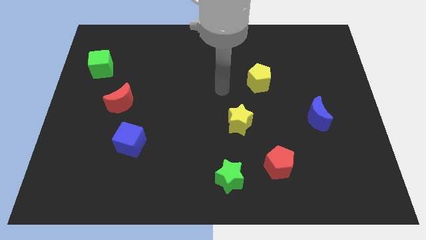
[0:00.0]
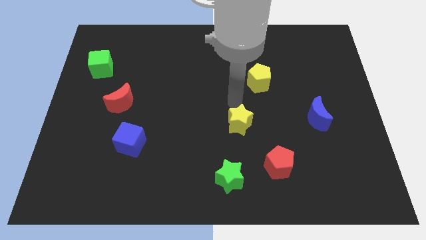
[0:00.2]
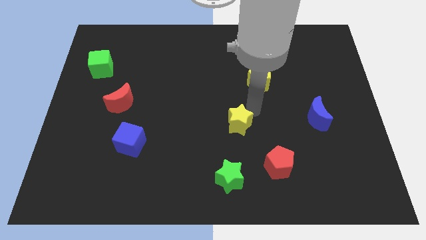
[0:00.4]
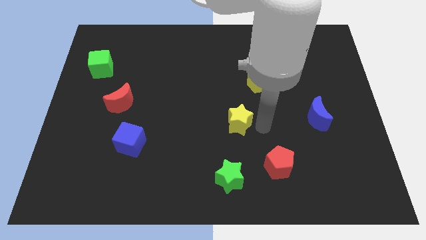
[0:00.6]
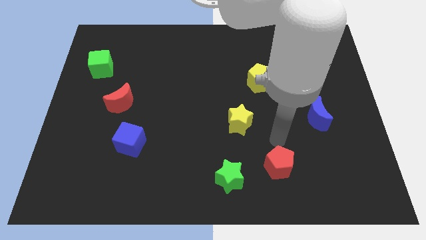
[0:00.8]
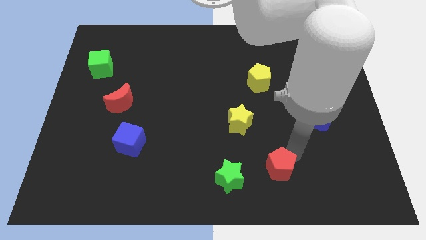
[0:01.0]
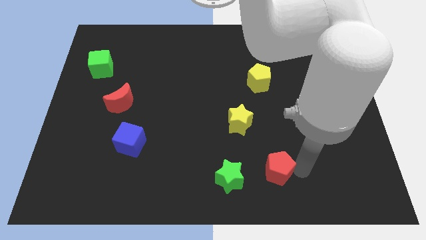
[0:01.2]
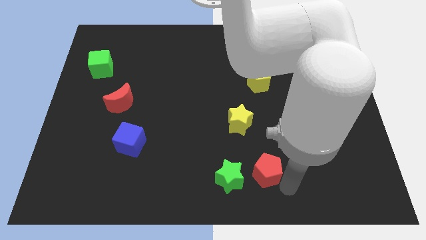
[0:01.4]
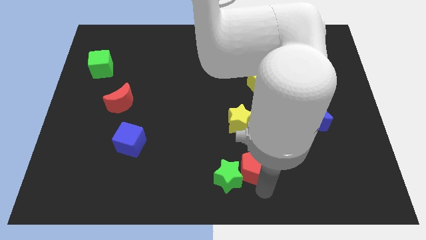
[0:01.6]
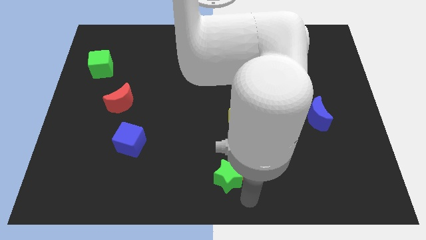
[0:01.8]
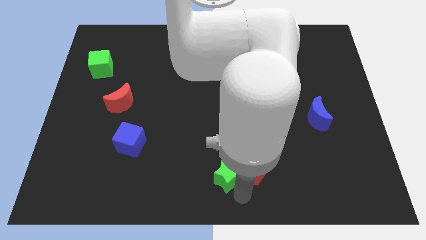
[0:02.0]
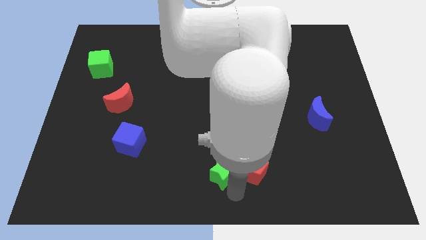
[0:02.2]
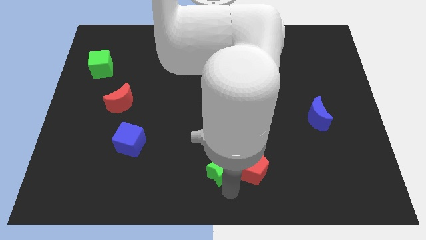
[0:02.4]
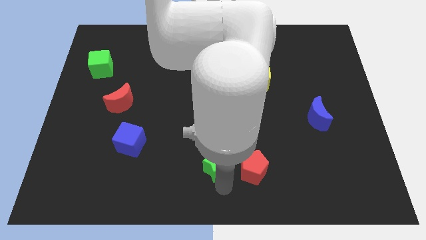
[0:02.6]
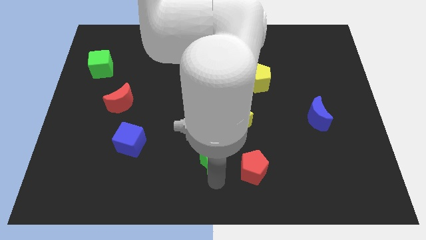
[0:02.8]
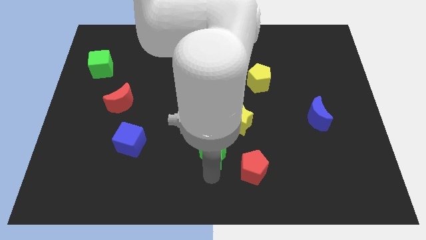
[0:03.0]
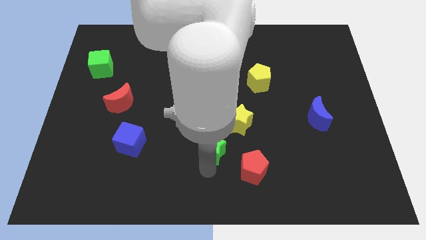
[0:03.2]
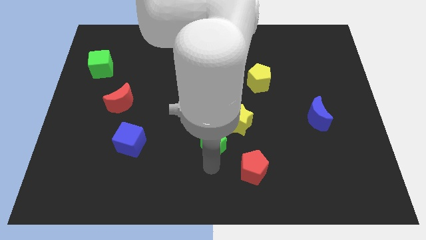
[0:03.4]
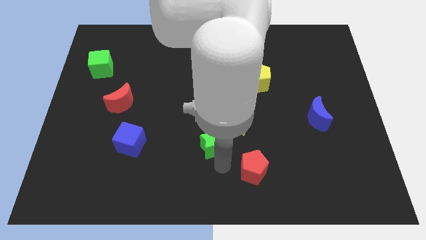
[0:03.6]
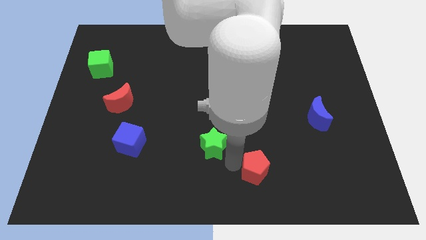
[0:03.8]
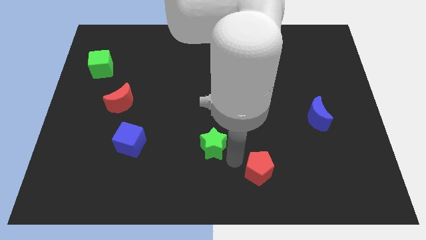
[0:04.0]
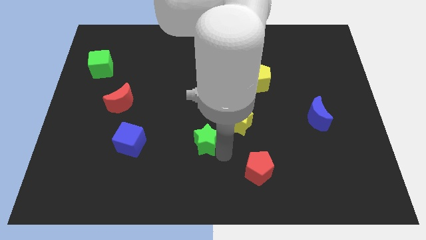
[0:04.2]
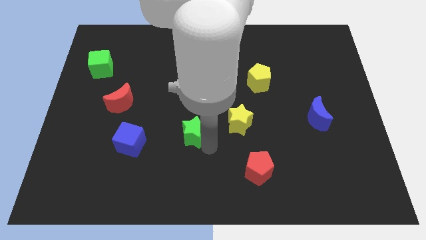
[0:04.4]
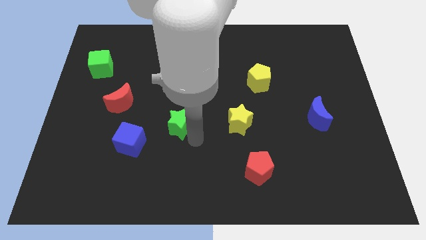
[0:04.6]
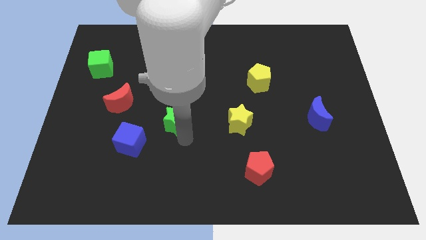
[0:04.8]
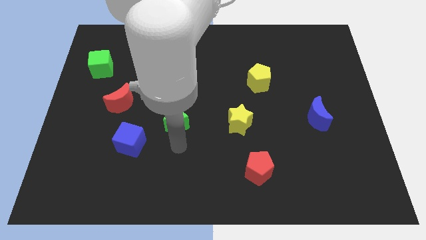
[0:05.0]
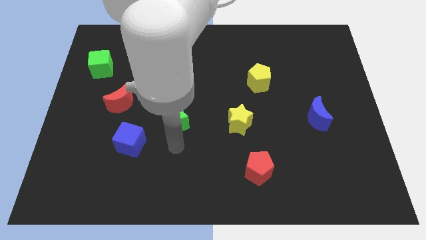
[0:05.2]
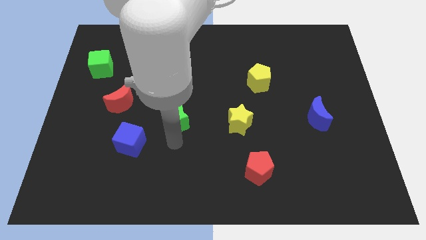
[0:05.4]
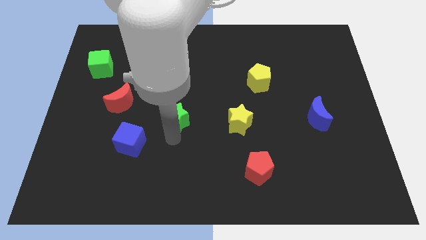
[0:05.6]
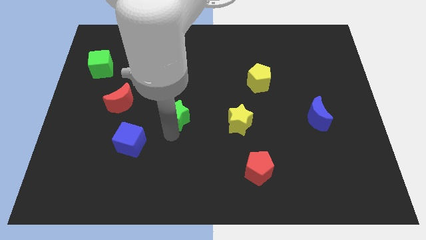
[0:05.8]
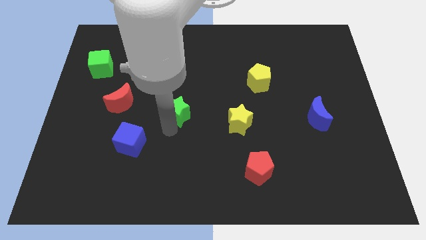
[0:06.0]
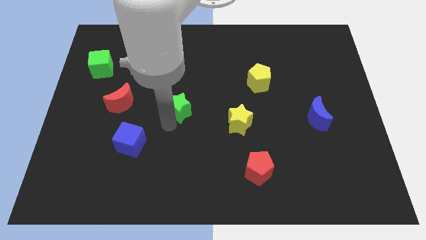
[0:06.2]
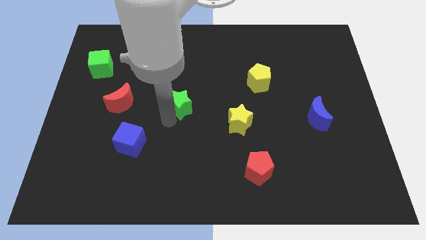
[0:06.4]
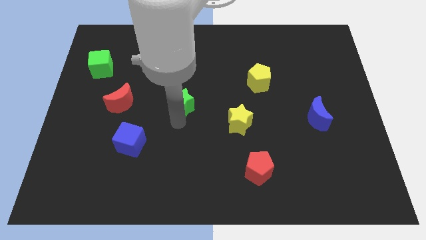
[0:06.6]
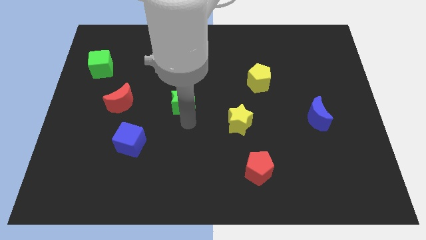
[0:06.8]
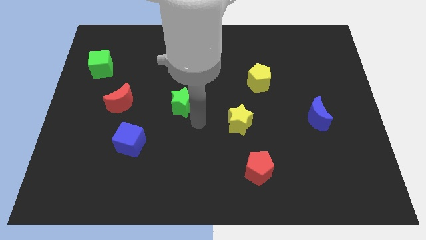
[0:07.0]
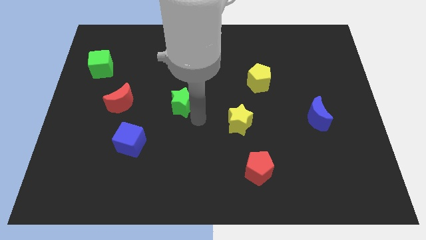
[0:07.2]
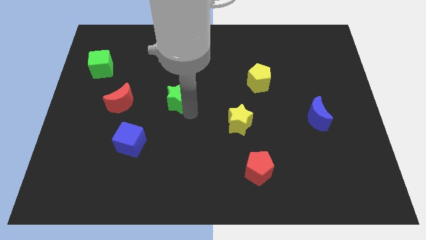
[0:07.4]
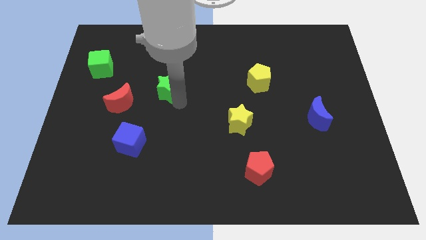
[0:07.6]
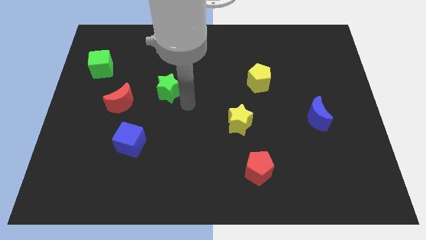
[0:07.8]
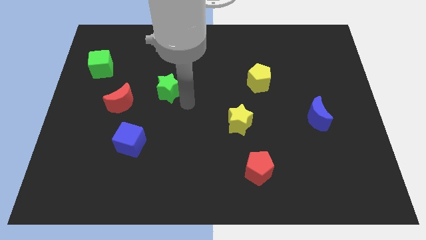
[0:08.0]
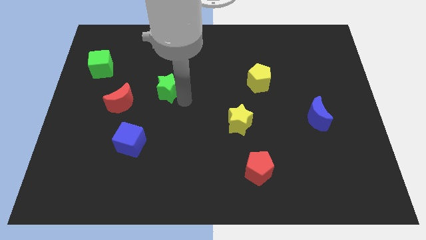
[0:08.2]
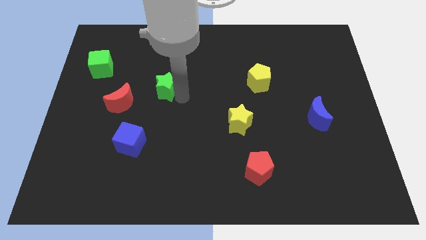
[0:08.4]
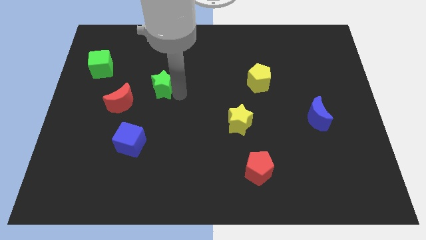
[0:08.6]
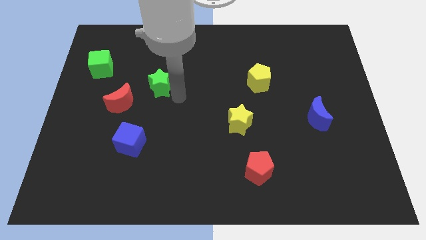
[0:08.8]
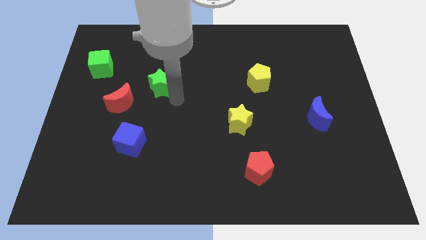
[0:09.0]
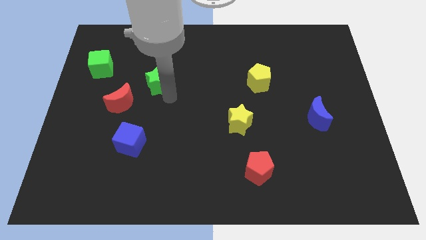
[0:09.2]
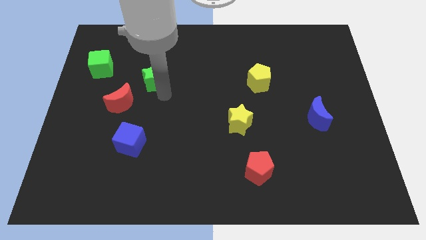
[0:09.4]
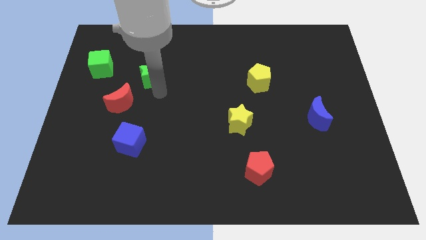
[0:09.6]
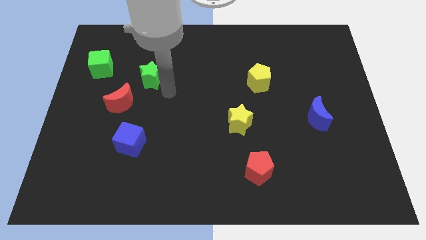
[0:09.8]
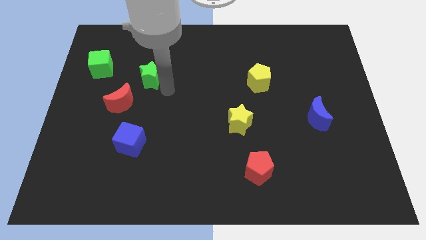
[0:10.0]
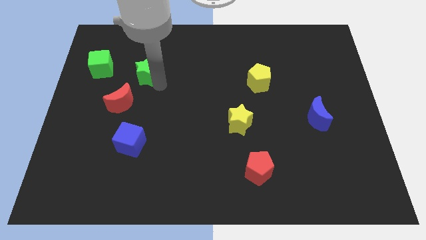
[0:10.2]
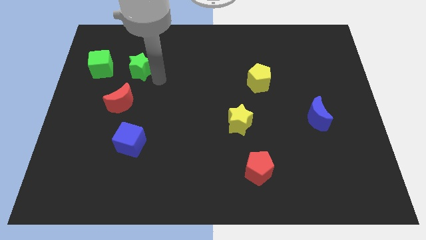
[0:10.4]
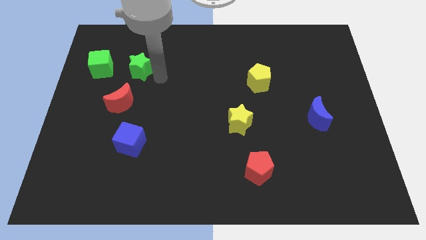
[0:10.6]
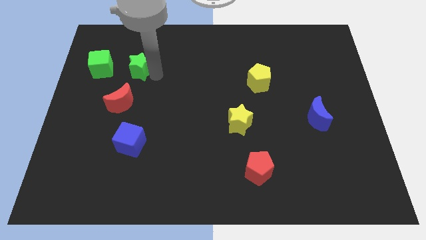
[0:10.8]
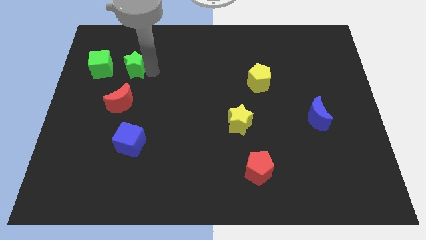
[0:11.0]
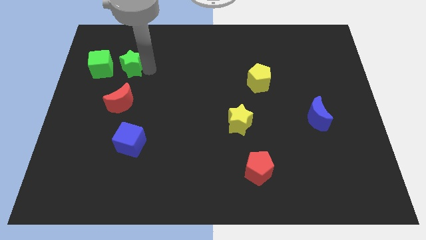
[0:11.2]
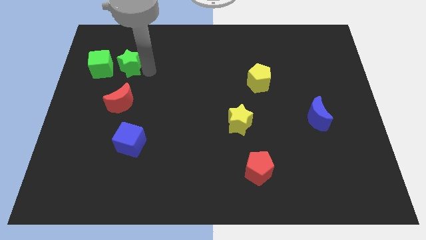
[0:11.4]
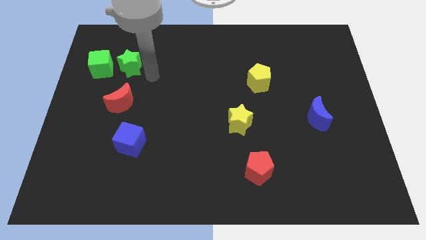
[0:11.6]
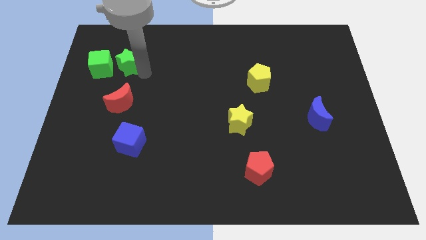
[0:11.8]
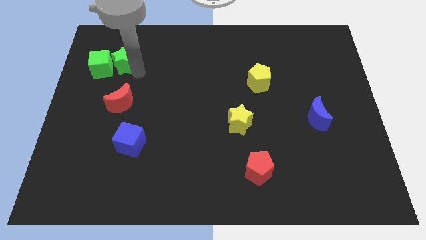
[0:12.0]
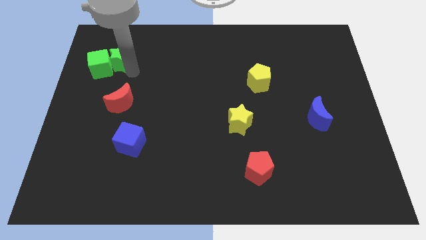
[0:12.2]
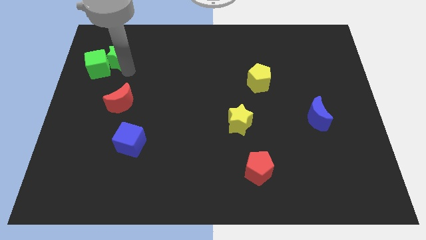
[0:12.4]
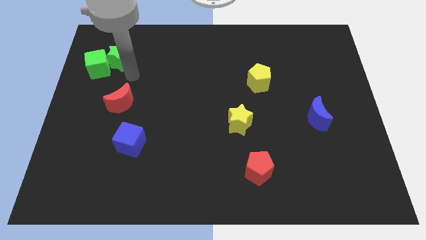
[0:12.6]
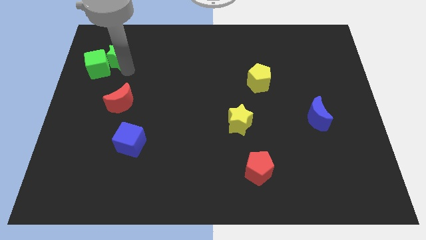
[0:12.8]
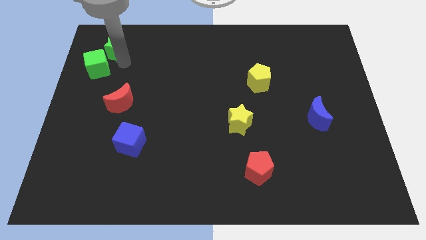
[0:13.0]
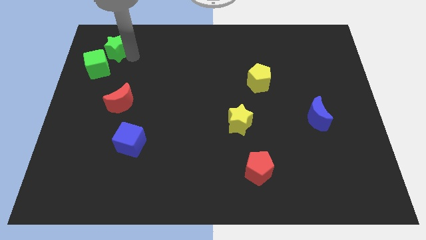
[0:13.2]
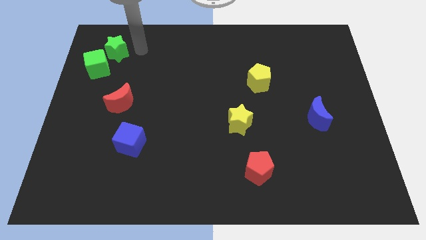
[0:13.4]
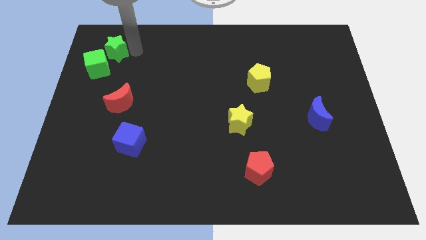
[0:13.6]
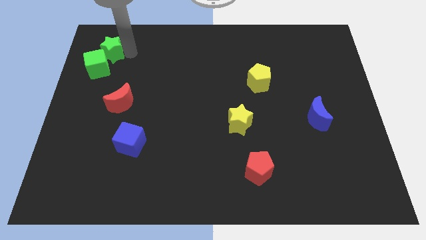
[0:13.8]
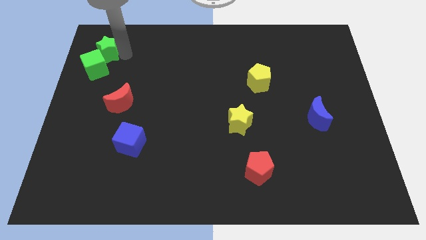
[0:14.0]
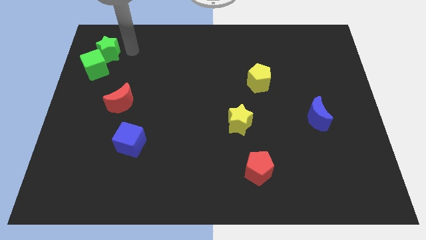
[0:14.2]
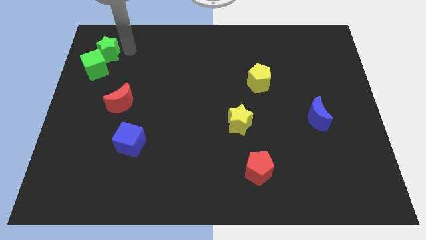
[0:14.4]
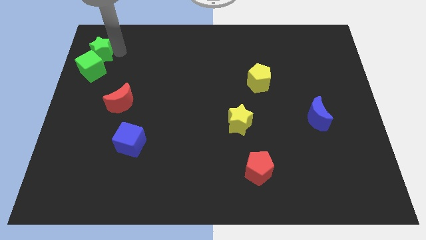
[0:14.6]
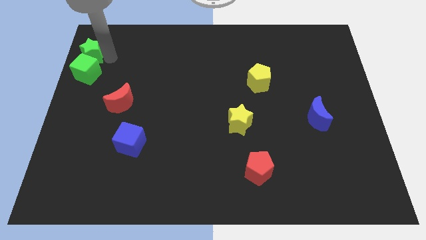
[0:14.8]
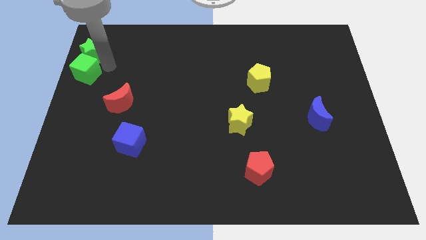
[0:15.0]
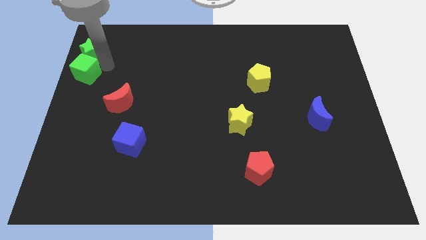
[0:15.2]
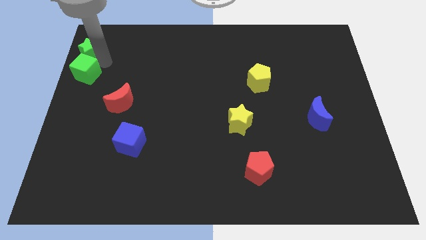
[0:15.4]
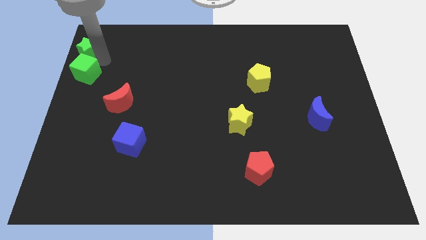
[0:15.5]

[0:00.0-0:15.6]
push the green star to the top left corner
